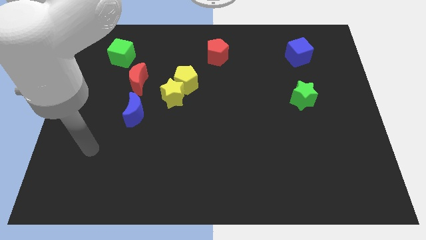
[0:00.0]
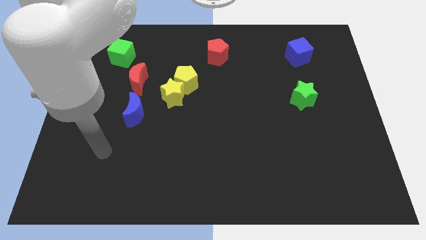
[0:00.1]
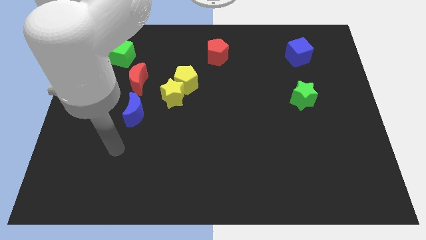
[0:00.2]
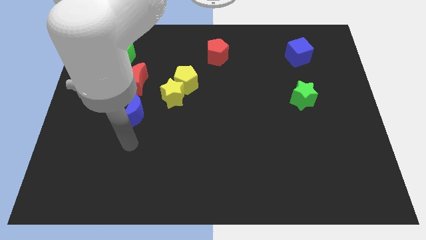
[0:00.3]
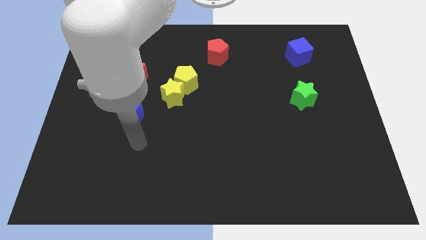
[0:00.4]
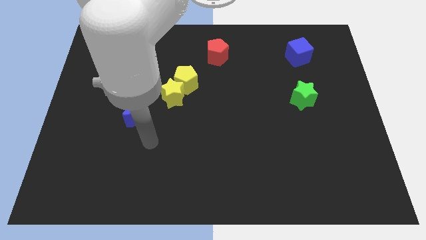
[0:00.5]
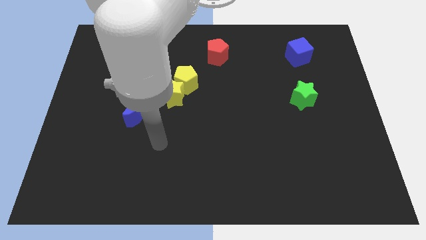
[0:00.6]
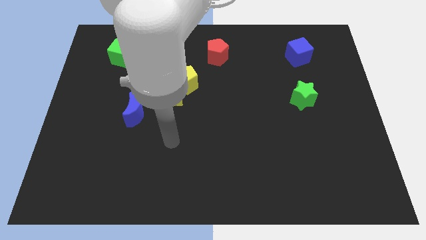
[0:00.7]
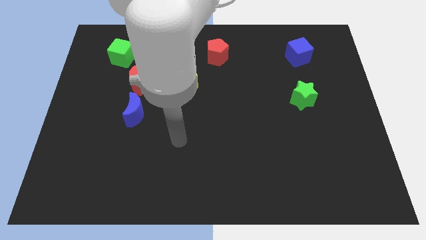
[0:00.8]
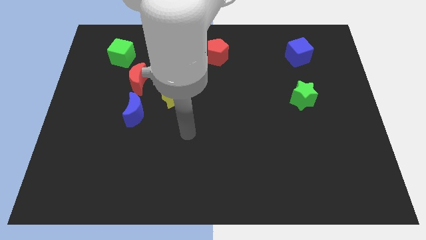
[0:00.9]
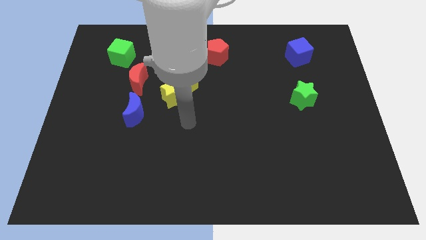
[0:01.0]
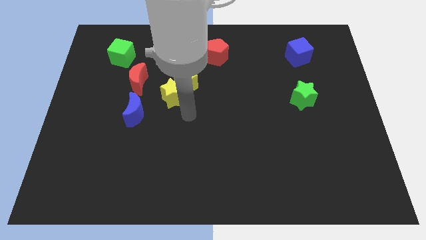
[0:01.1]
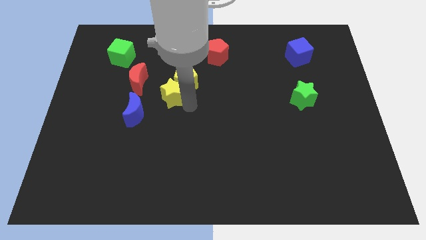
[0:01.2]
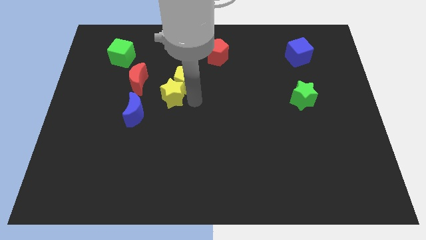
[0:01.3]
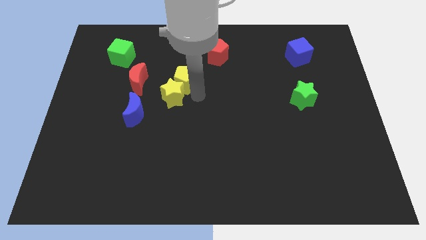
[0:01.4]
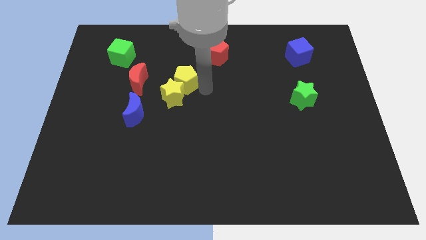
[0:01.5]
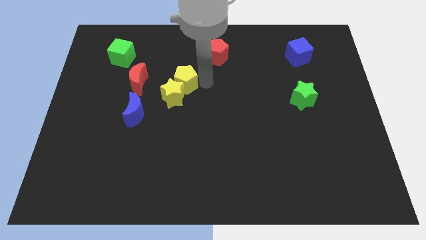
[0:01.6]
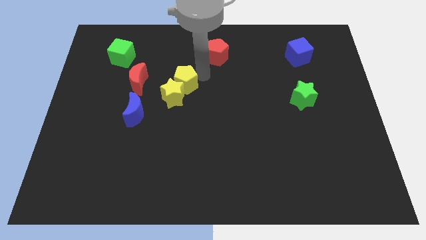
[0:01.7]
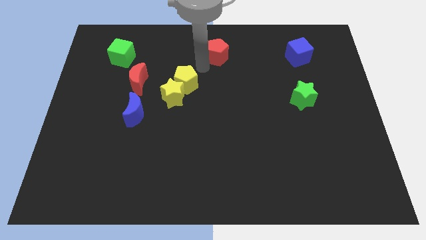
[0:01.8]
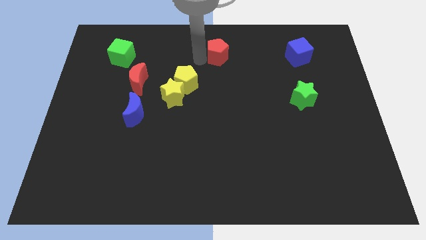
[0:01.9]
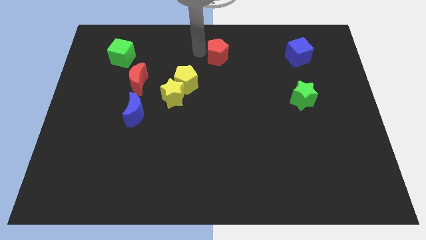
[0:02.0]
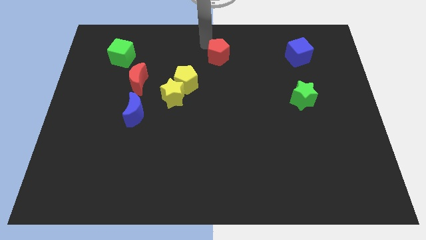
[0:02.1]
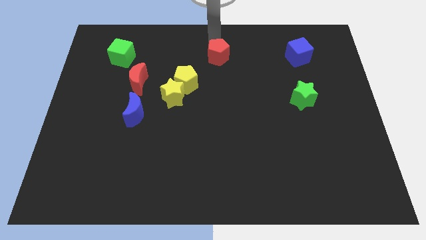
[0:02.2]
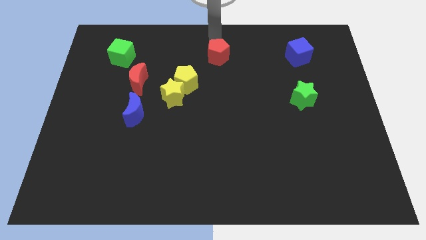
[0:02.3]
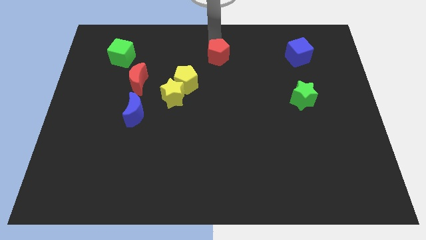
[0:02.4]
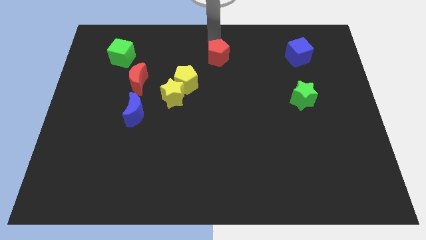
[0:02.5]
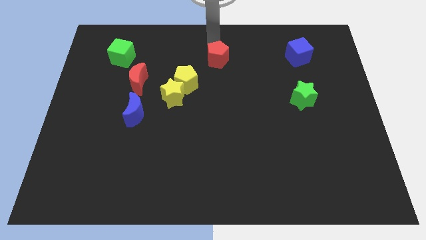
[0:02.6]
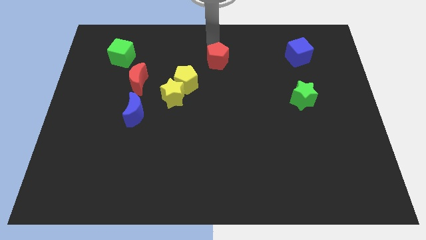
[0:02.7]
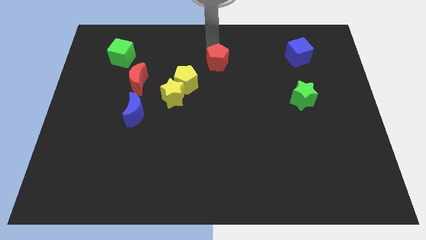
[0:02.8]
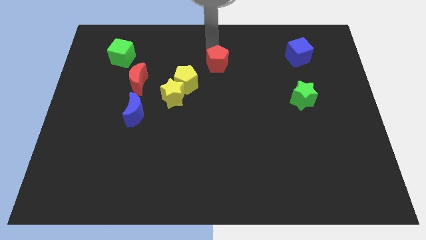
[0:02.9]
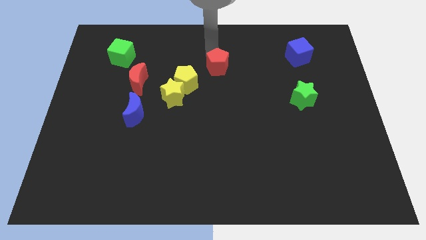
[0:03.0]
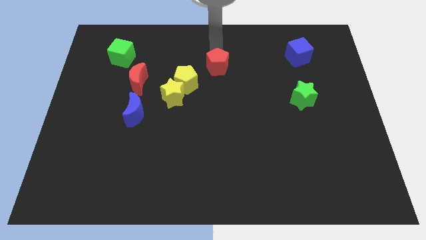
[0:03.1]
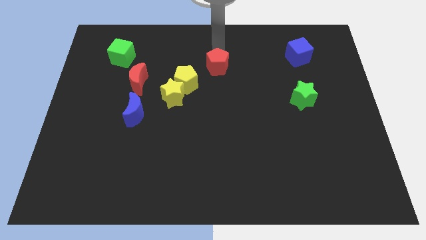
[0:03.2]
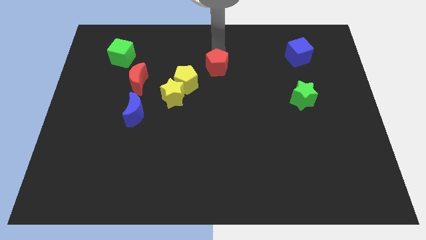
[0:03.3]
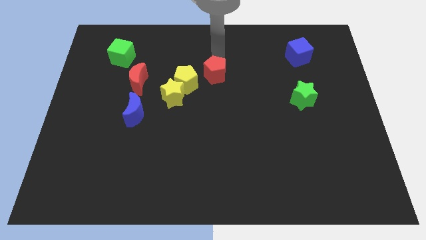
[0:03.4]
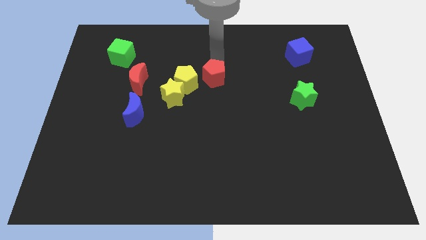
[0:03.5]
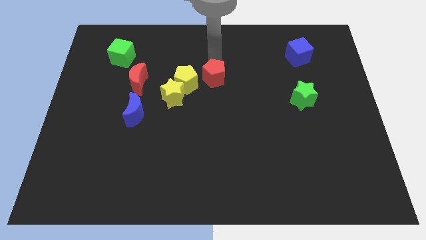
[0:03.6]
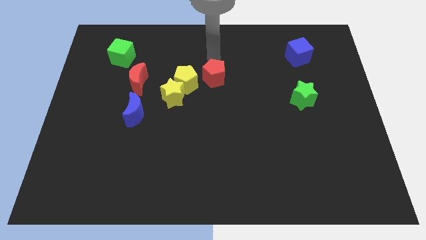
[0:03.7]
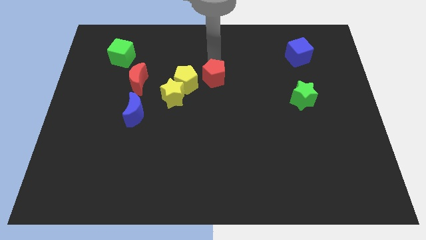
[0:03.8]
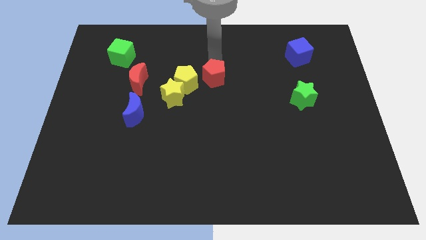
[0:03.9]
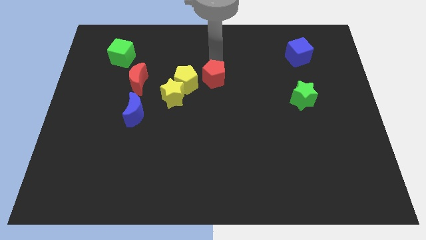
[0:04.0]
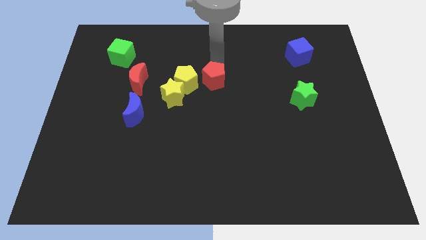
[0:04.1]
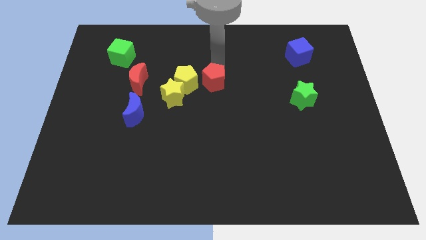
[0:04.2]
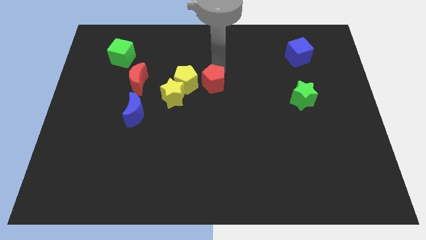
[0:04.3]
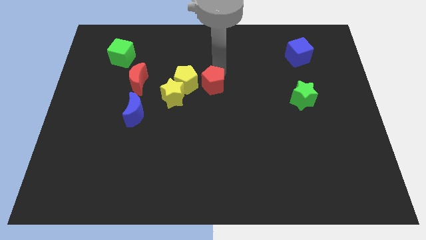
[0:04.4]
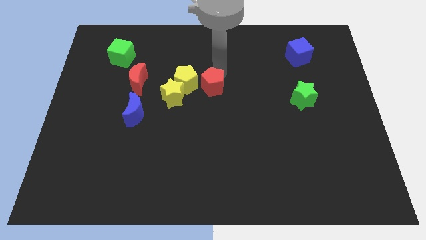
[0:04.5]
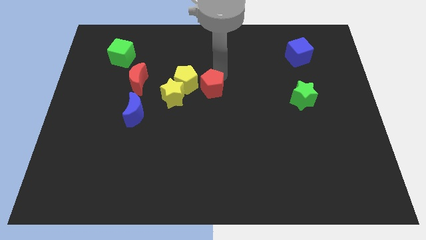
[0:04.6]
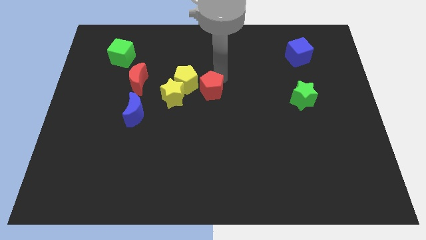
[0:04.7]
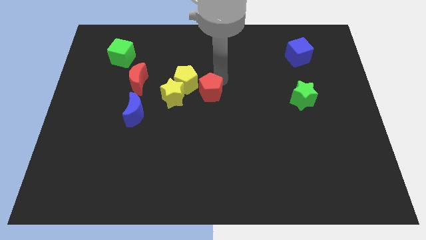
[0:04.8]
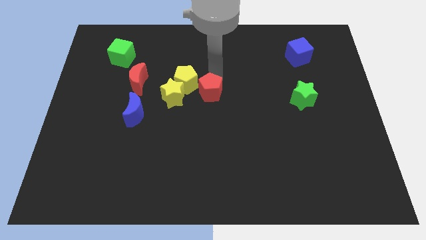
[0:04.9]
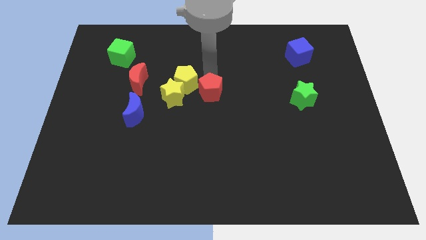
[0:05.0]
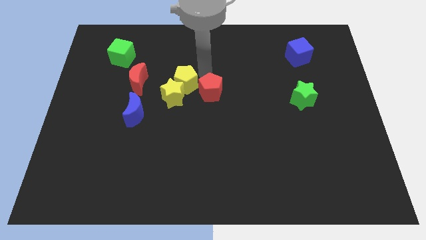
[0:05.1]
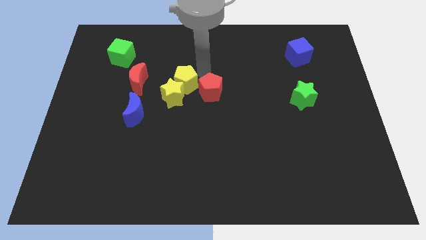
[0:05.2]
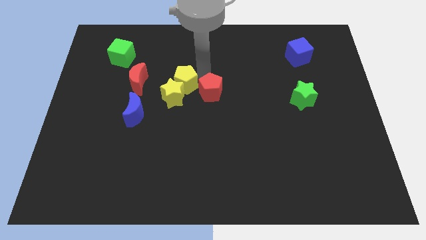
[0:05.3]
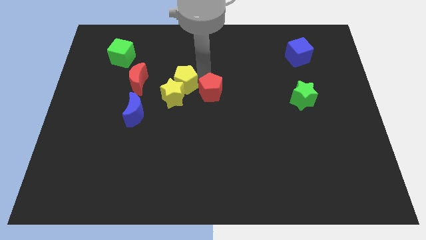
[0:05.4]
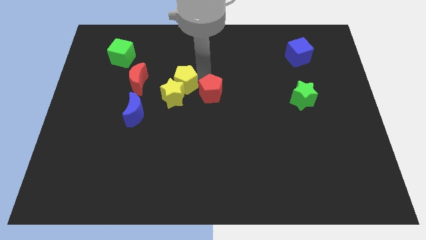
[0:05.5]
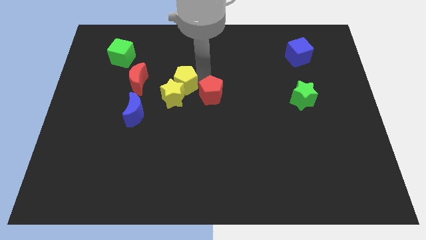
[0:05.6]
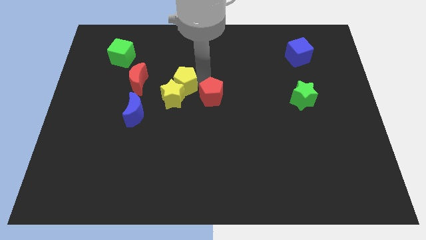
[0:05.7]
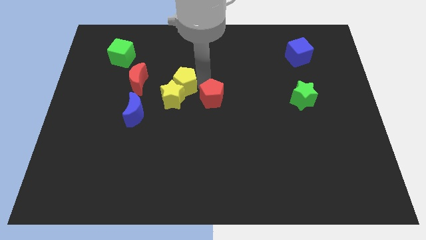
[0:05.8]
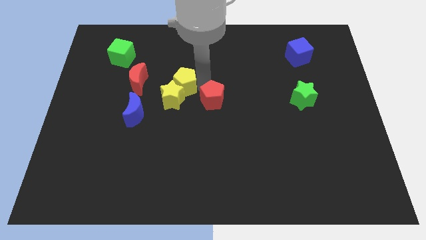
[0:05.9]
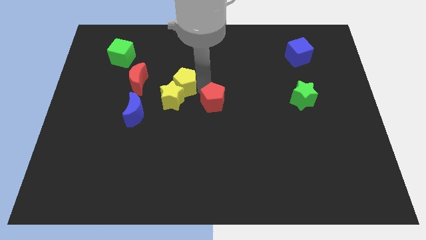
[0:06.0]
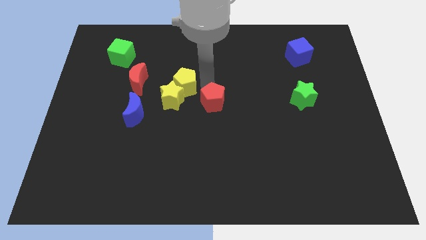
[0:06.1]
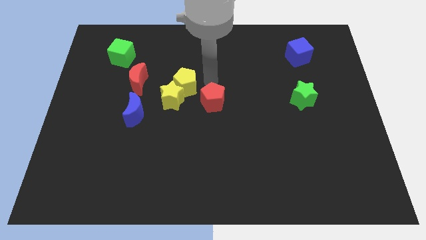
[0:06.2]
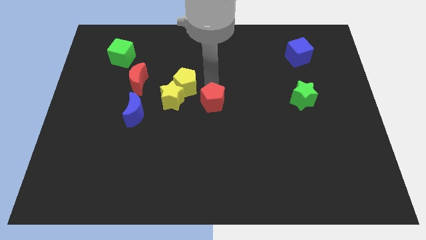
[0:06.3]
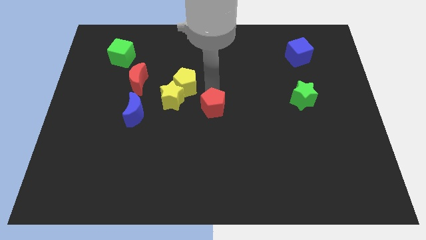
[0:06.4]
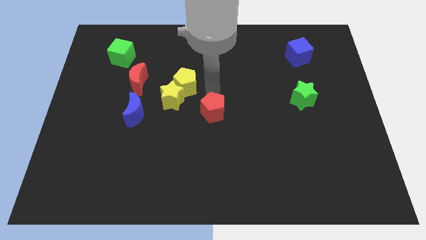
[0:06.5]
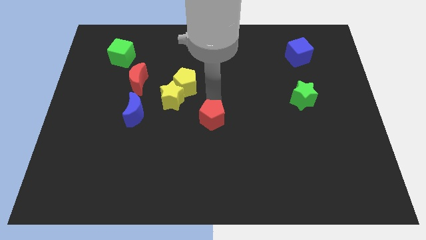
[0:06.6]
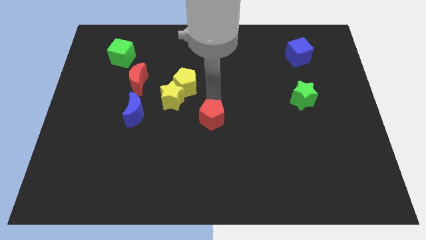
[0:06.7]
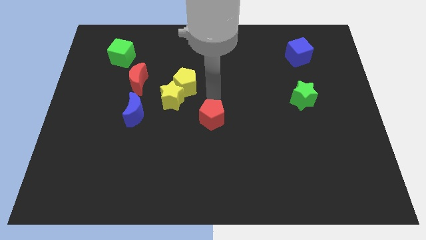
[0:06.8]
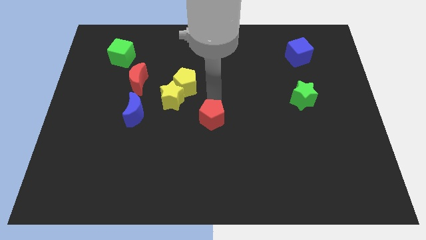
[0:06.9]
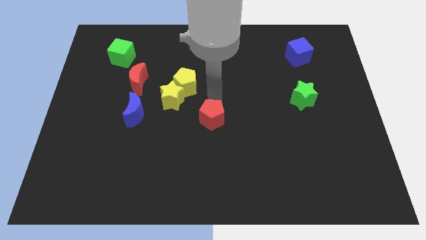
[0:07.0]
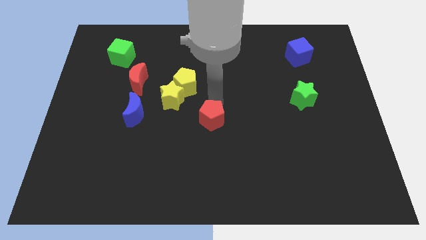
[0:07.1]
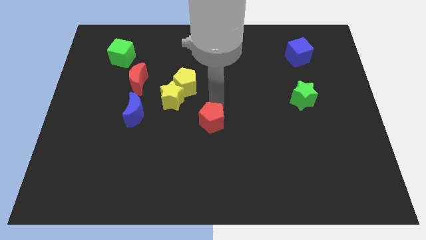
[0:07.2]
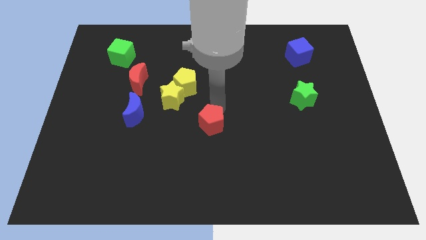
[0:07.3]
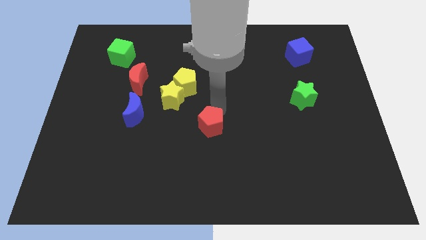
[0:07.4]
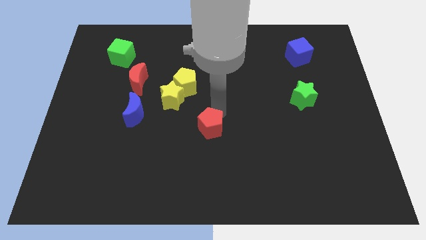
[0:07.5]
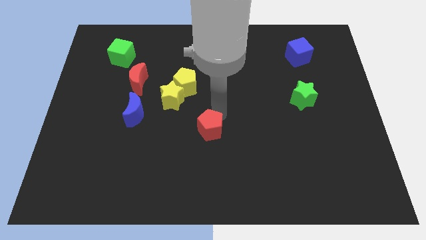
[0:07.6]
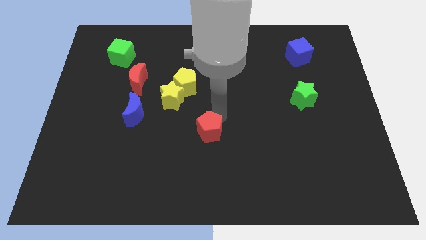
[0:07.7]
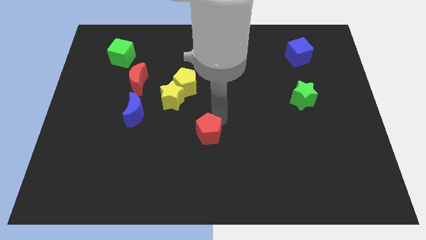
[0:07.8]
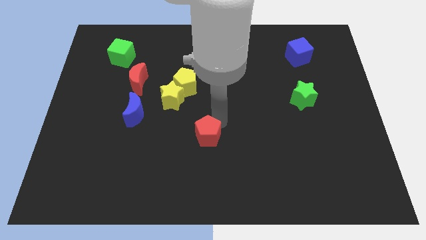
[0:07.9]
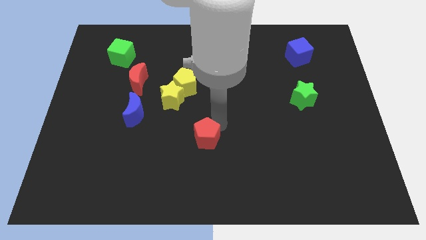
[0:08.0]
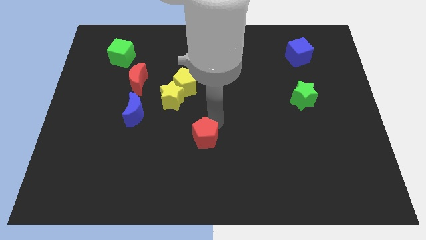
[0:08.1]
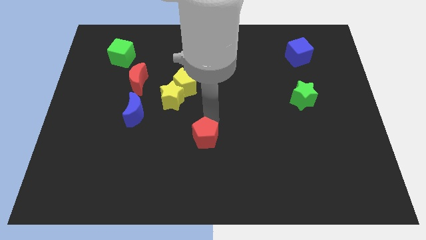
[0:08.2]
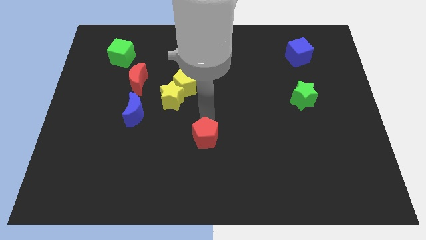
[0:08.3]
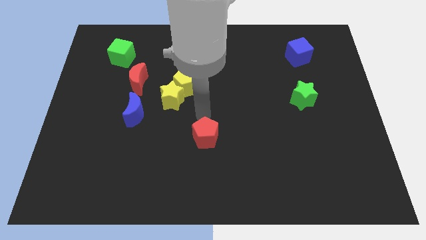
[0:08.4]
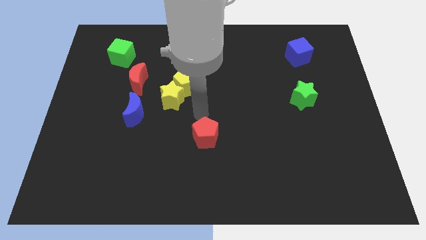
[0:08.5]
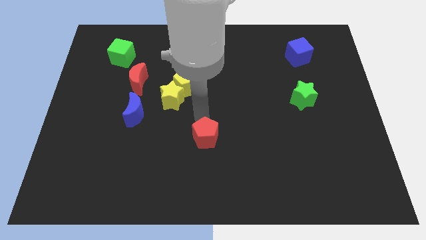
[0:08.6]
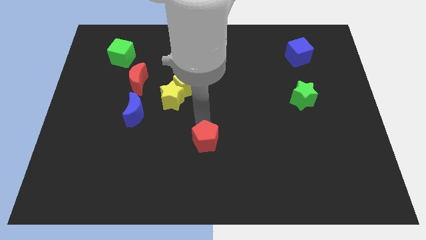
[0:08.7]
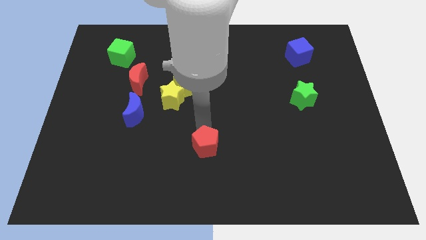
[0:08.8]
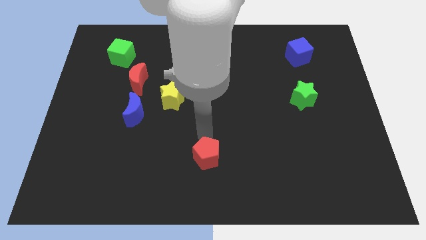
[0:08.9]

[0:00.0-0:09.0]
slide the red pentagon to the bottom side
